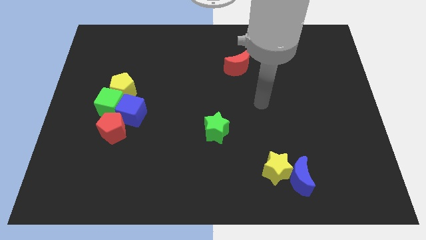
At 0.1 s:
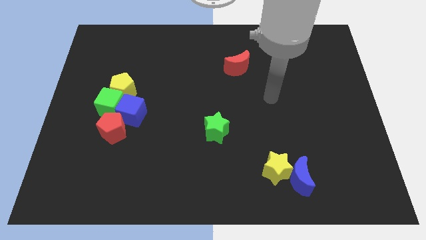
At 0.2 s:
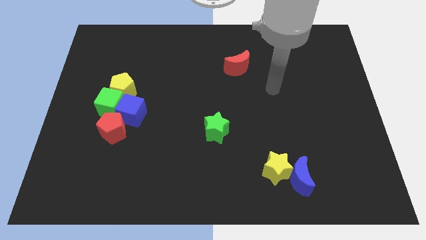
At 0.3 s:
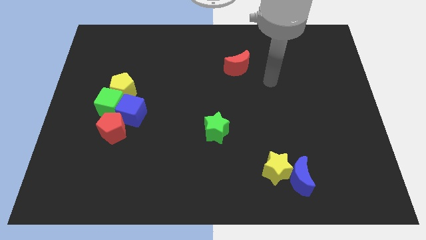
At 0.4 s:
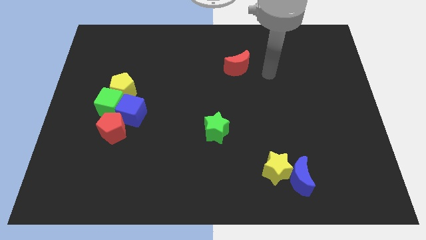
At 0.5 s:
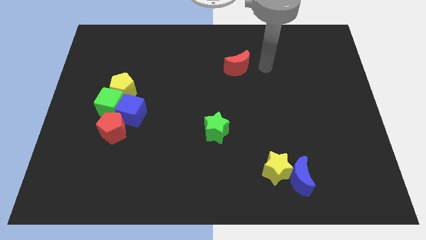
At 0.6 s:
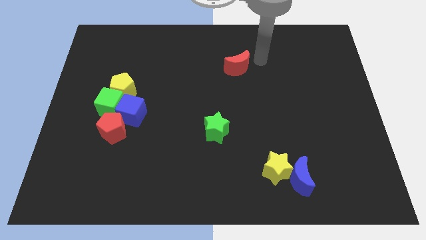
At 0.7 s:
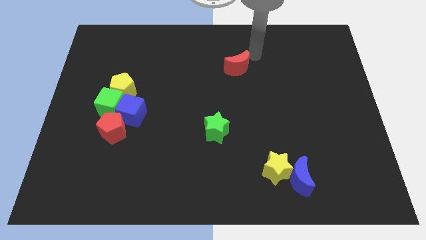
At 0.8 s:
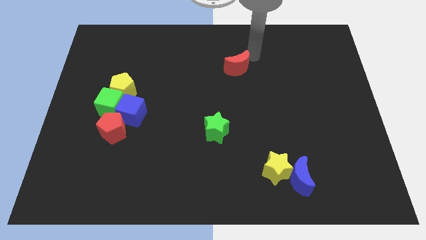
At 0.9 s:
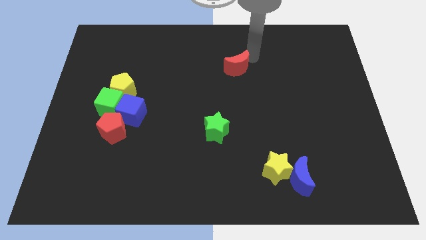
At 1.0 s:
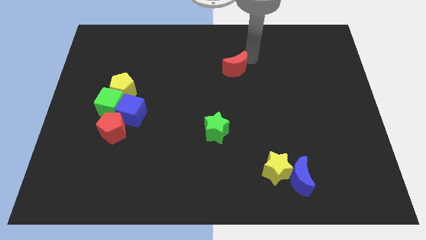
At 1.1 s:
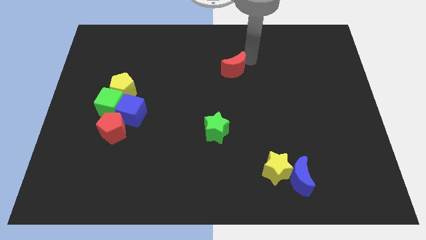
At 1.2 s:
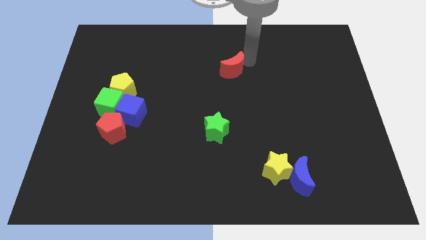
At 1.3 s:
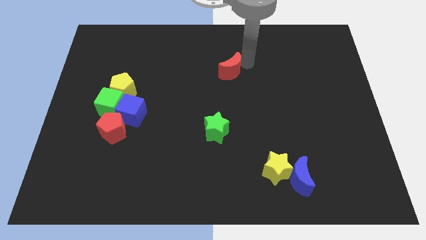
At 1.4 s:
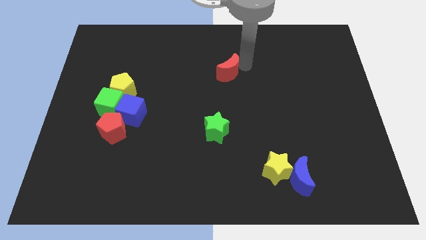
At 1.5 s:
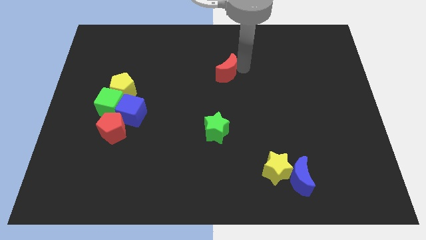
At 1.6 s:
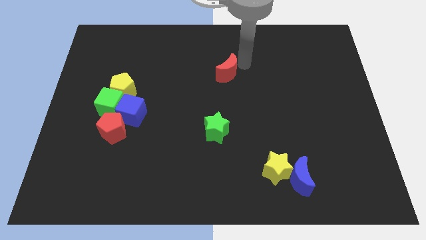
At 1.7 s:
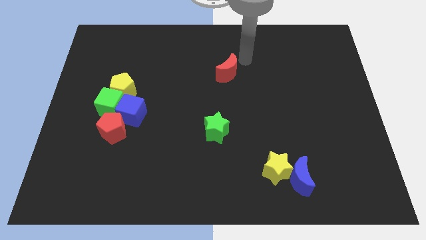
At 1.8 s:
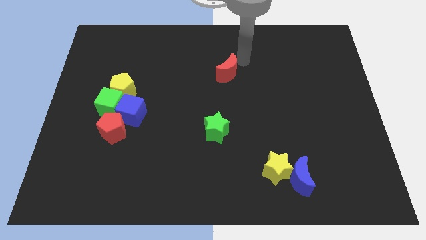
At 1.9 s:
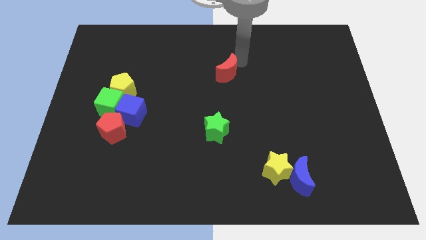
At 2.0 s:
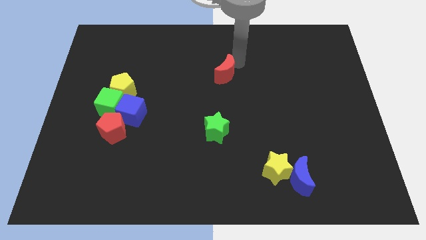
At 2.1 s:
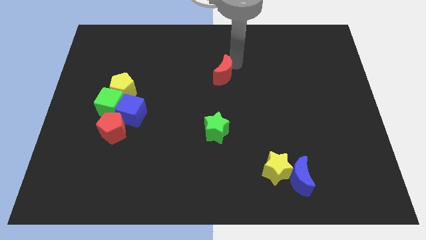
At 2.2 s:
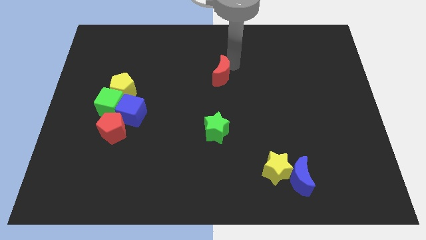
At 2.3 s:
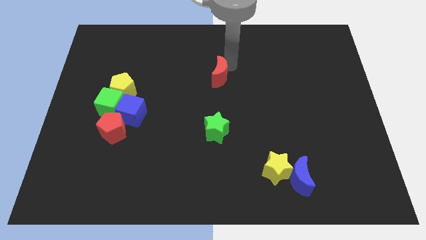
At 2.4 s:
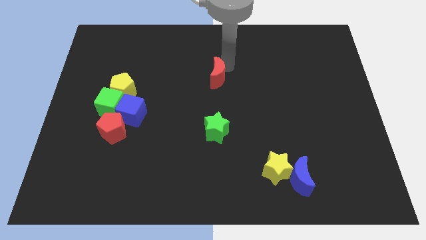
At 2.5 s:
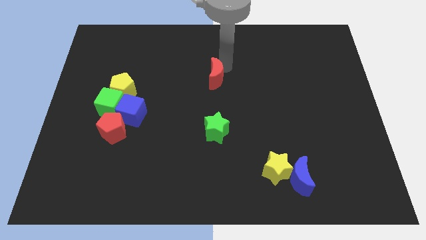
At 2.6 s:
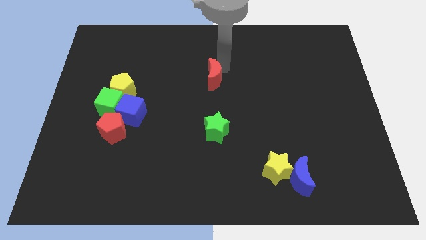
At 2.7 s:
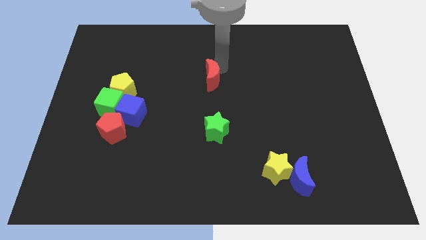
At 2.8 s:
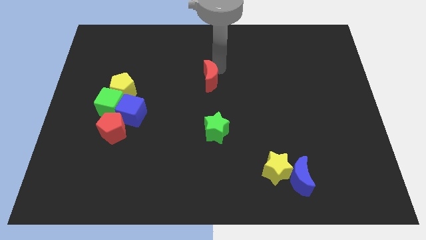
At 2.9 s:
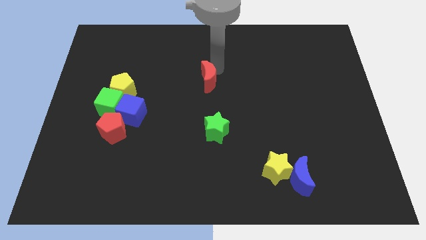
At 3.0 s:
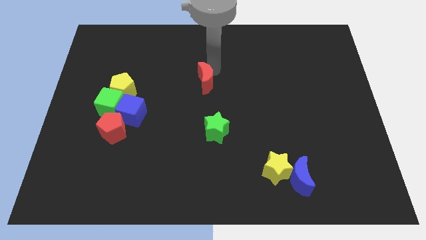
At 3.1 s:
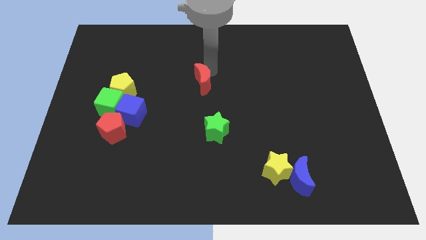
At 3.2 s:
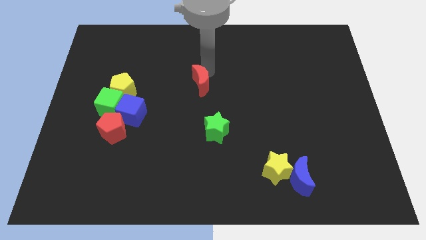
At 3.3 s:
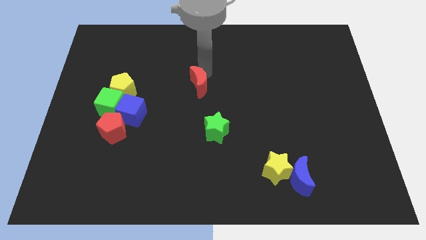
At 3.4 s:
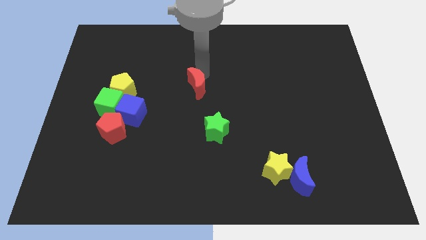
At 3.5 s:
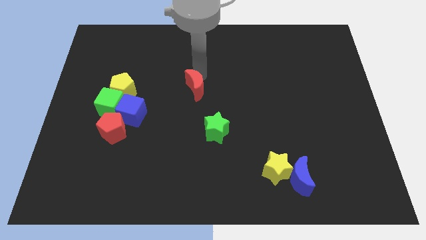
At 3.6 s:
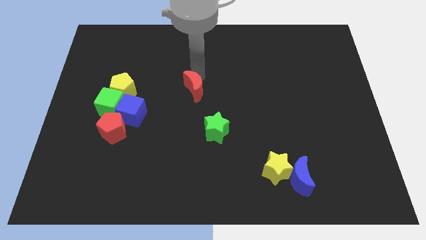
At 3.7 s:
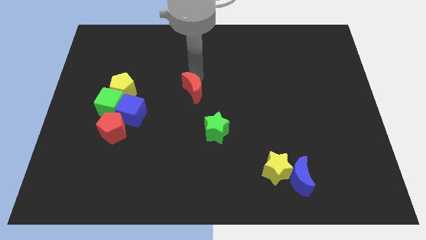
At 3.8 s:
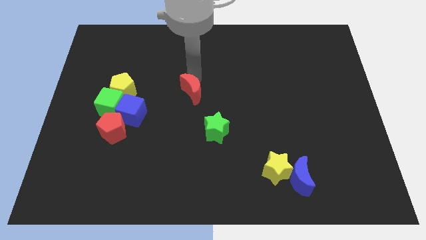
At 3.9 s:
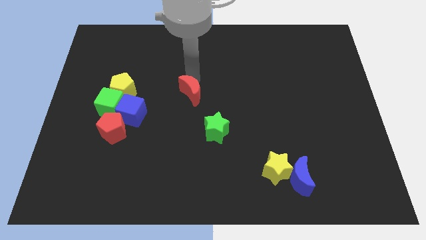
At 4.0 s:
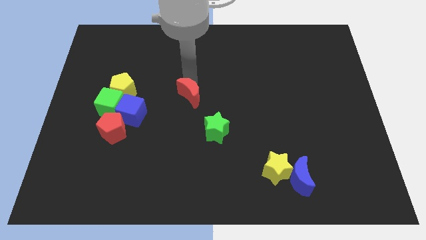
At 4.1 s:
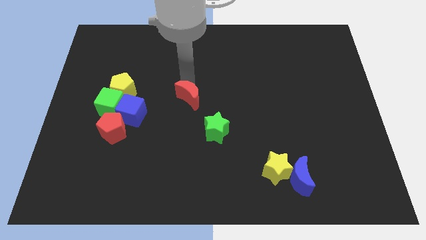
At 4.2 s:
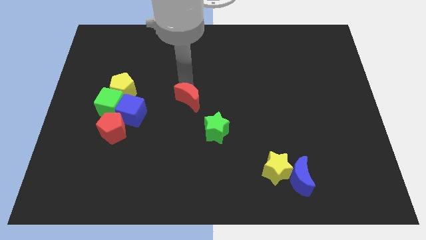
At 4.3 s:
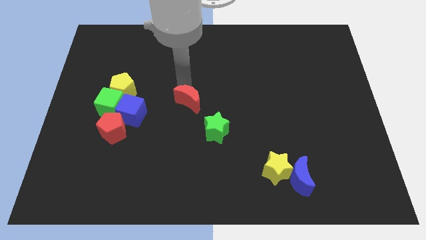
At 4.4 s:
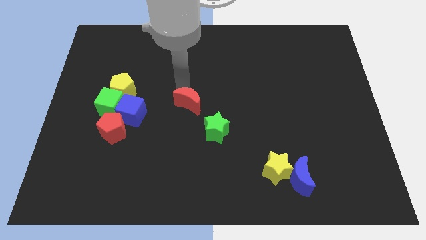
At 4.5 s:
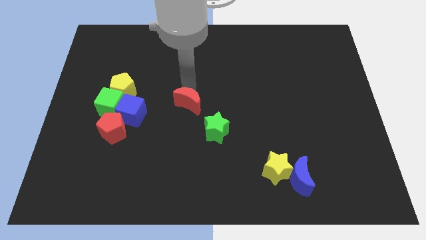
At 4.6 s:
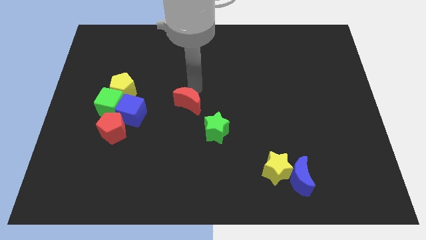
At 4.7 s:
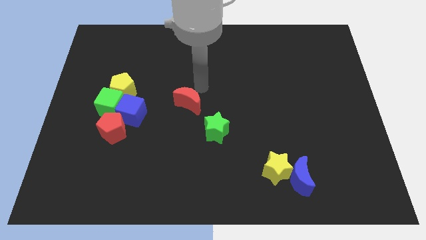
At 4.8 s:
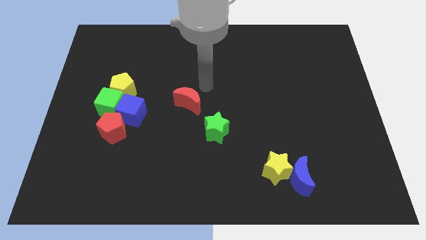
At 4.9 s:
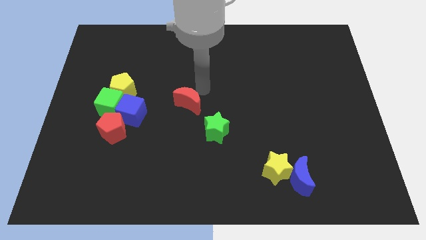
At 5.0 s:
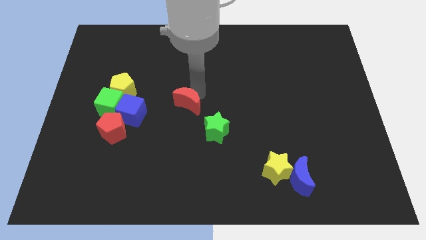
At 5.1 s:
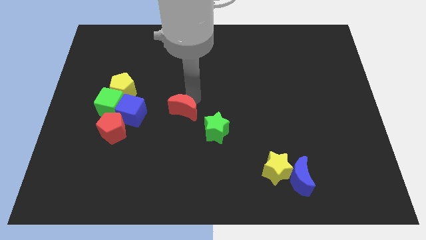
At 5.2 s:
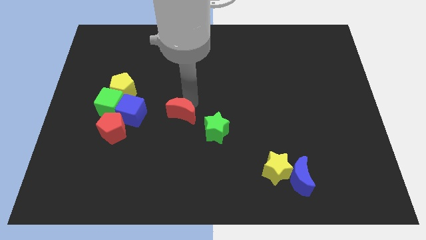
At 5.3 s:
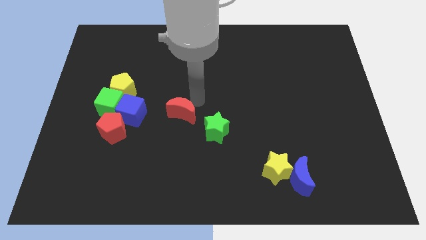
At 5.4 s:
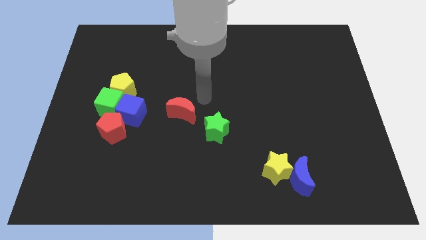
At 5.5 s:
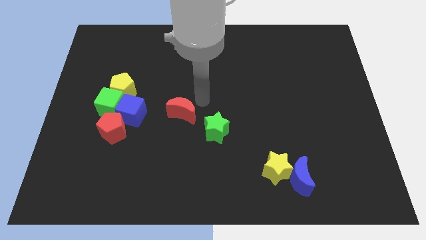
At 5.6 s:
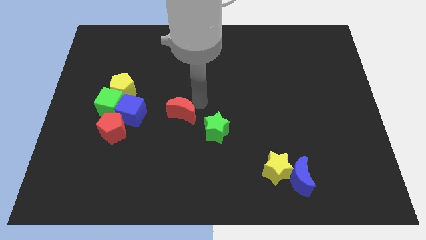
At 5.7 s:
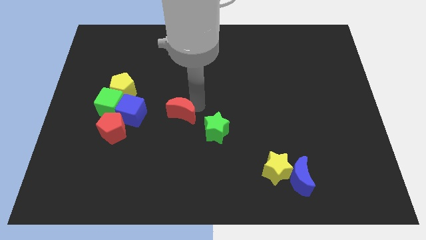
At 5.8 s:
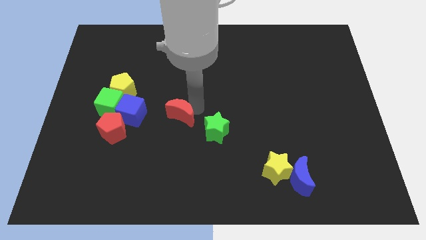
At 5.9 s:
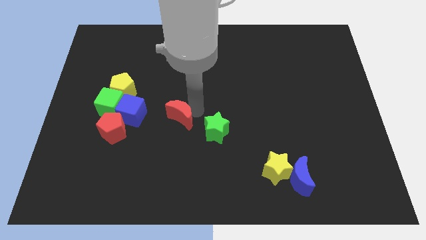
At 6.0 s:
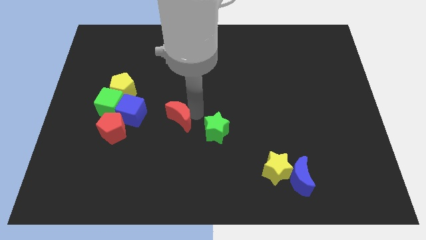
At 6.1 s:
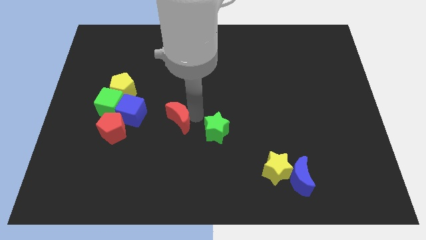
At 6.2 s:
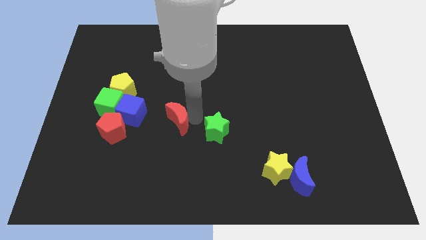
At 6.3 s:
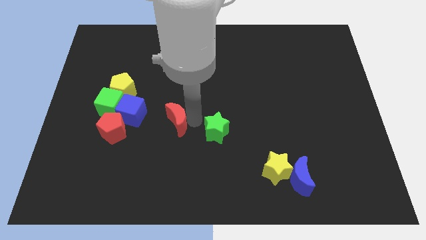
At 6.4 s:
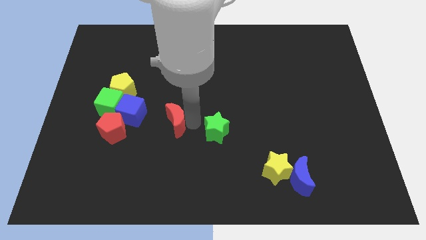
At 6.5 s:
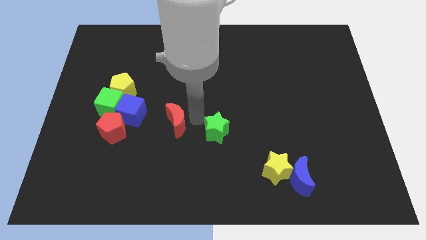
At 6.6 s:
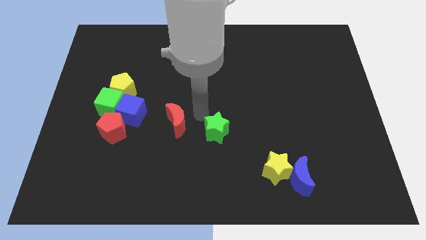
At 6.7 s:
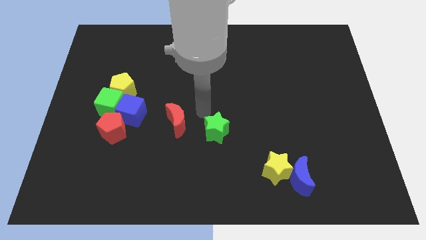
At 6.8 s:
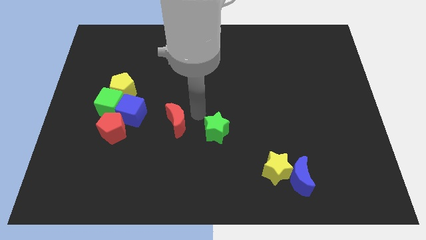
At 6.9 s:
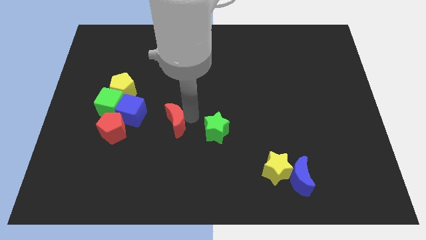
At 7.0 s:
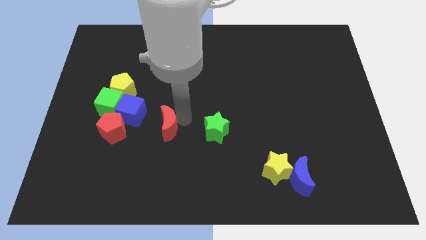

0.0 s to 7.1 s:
move the red moon diagonally down and to the right of the blue cube
